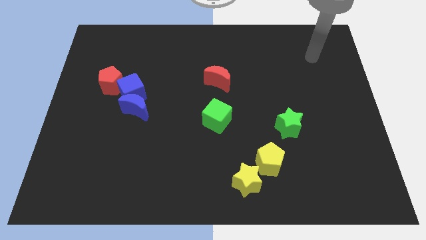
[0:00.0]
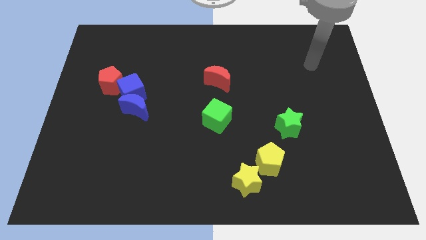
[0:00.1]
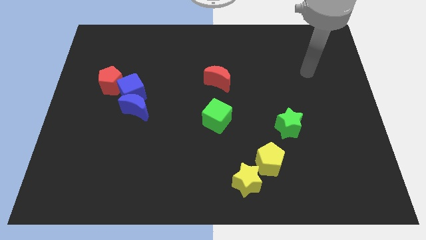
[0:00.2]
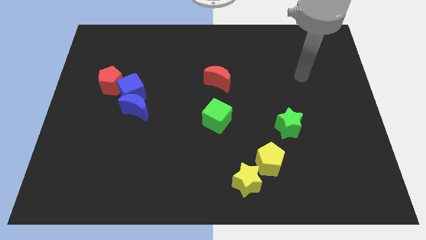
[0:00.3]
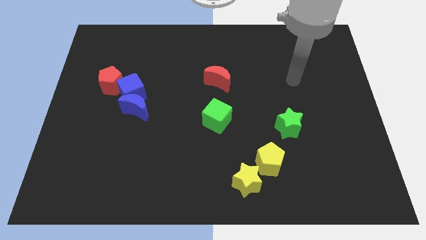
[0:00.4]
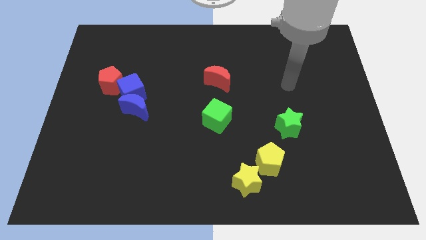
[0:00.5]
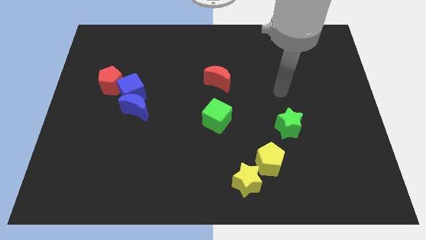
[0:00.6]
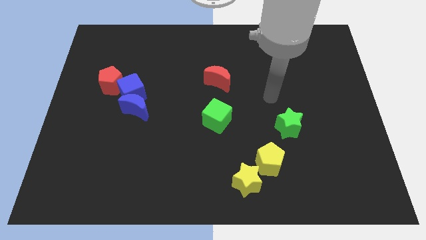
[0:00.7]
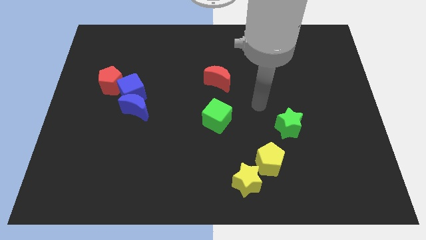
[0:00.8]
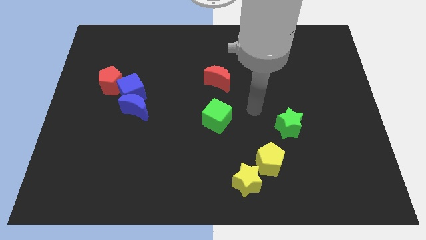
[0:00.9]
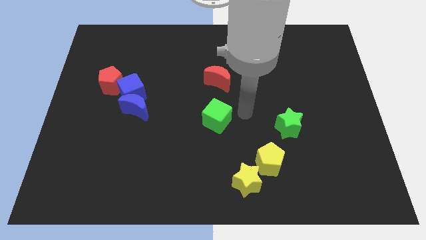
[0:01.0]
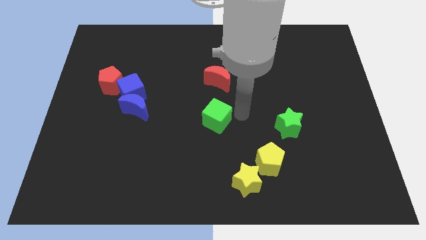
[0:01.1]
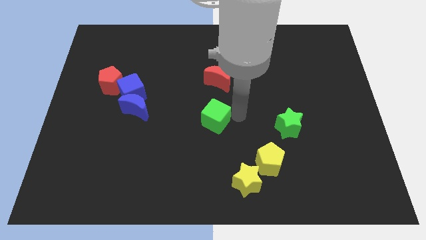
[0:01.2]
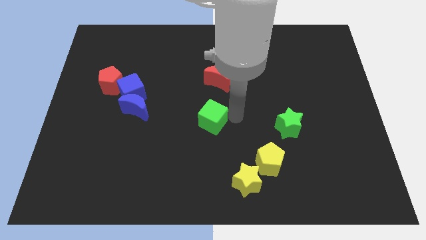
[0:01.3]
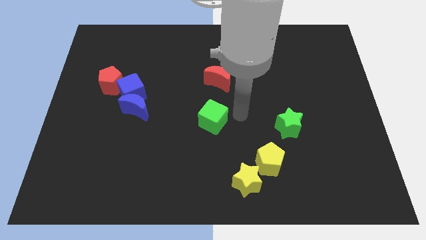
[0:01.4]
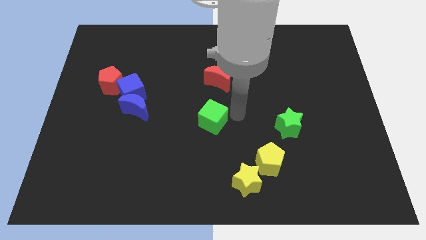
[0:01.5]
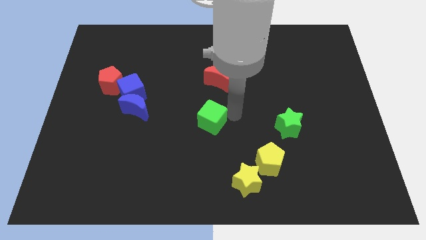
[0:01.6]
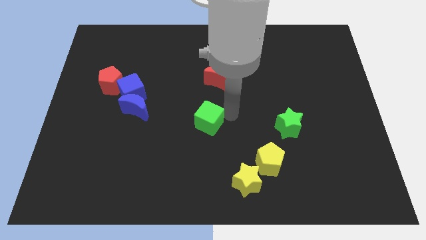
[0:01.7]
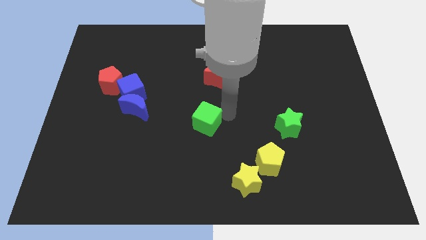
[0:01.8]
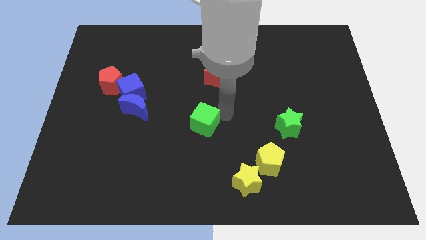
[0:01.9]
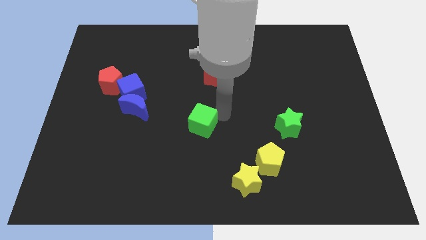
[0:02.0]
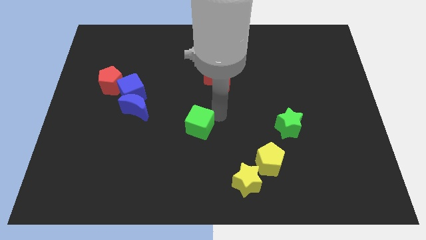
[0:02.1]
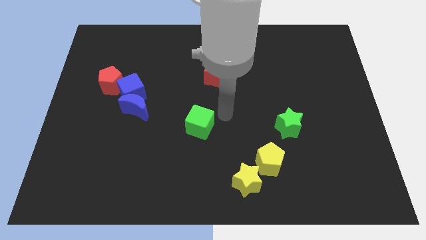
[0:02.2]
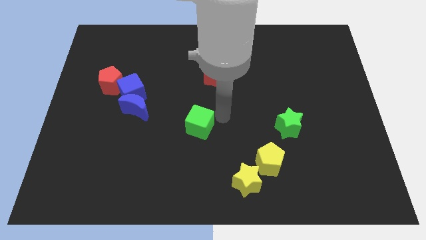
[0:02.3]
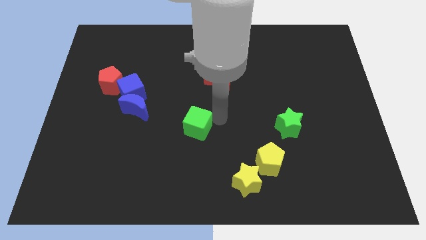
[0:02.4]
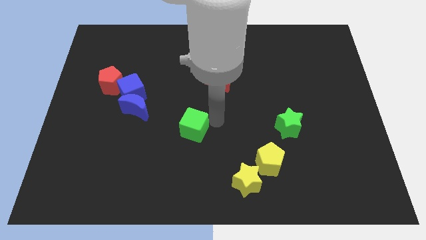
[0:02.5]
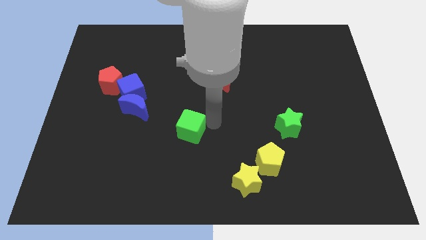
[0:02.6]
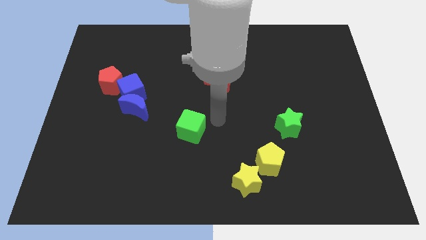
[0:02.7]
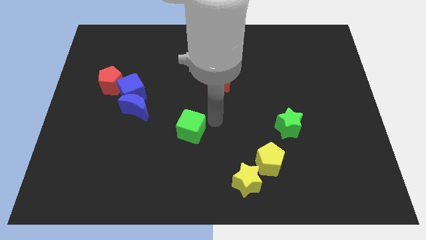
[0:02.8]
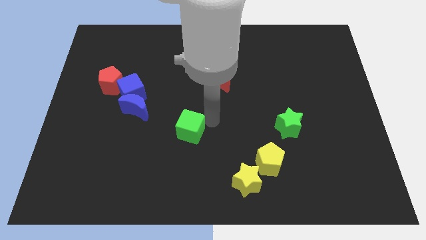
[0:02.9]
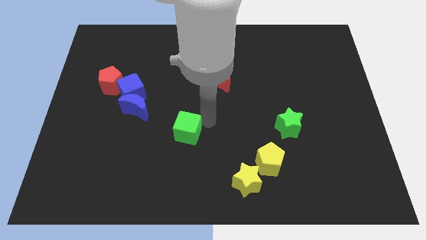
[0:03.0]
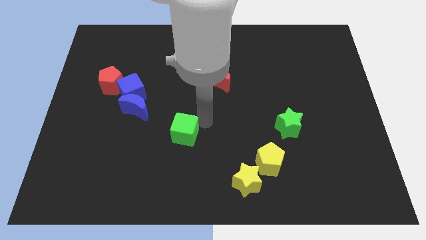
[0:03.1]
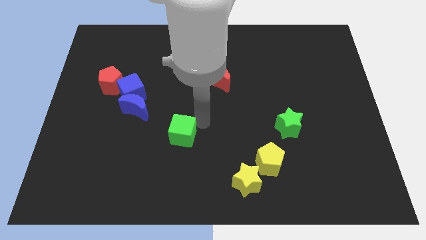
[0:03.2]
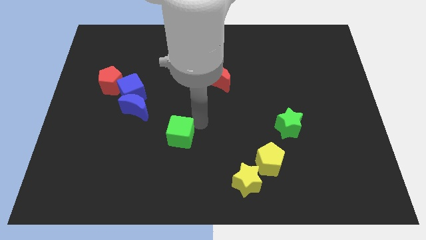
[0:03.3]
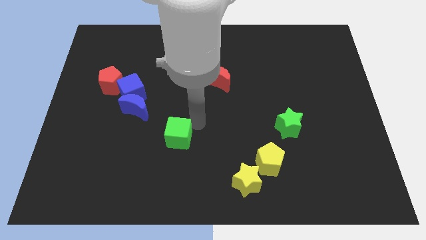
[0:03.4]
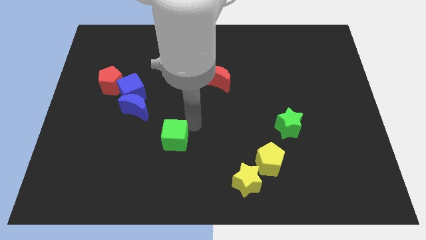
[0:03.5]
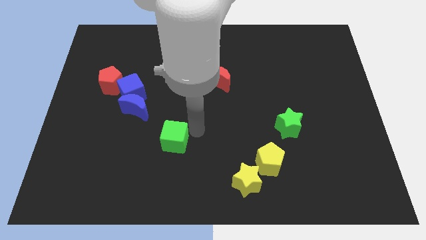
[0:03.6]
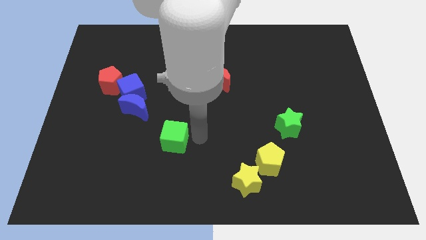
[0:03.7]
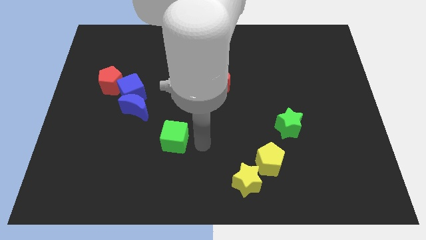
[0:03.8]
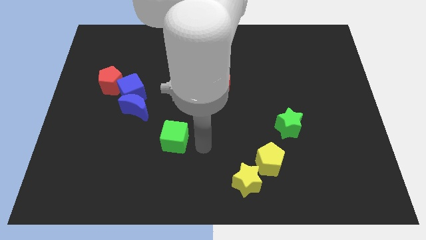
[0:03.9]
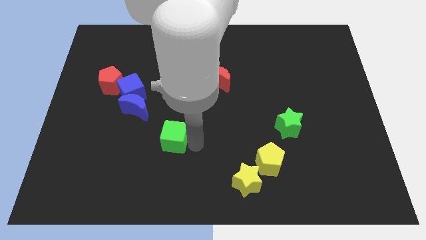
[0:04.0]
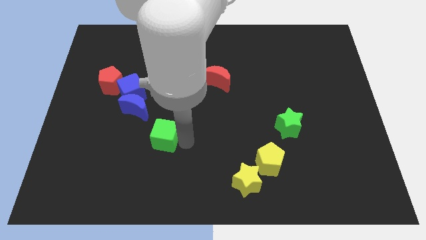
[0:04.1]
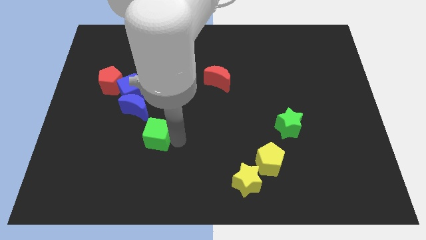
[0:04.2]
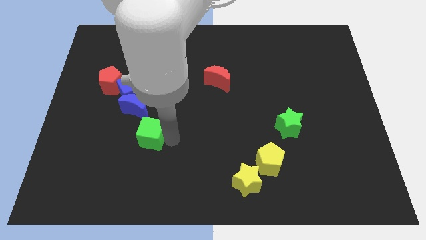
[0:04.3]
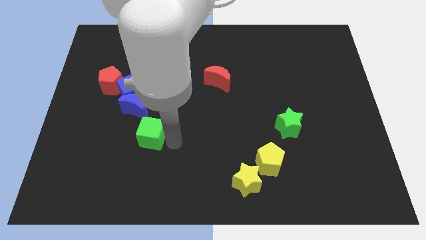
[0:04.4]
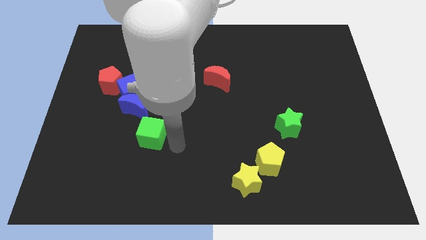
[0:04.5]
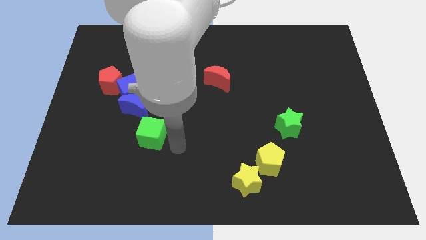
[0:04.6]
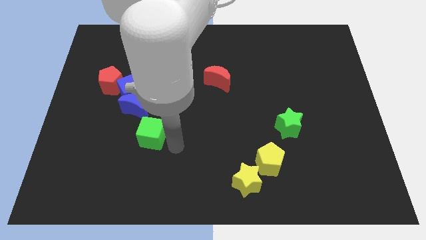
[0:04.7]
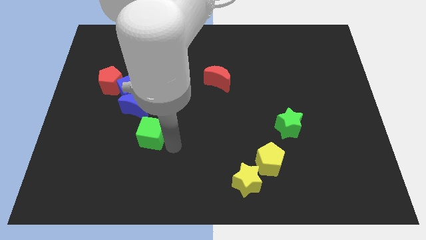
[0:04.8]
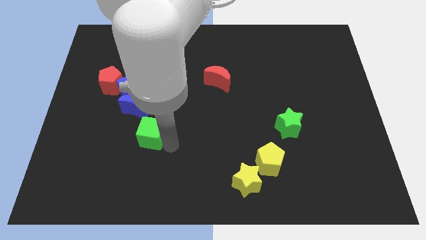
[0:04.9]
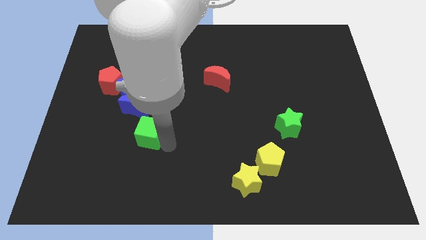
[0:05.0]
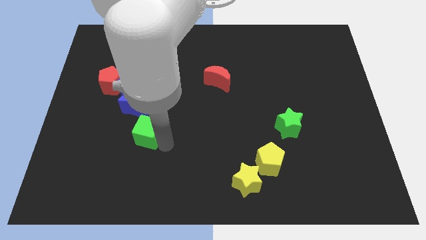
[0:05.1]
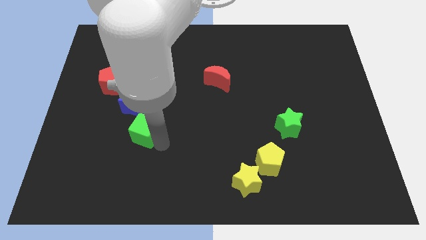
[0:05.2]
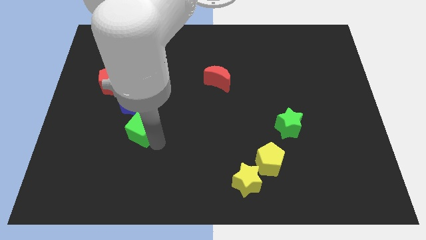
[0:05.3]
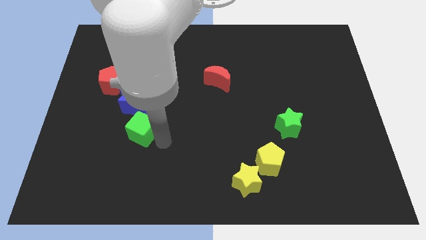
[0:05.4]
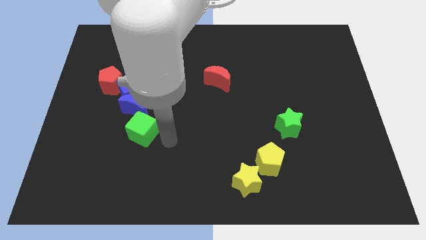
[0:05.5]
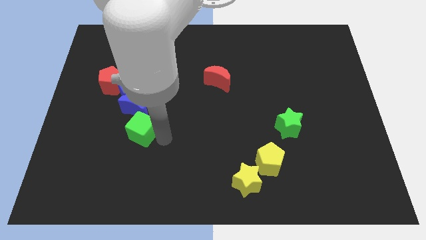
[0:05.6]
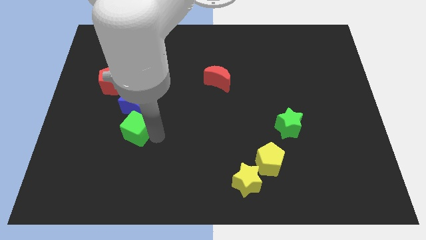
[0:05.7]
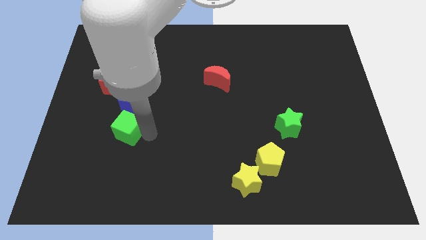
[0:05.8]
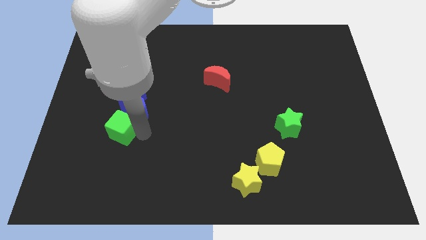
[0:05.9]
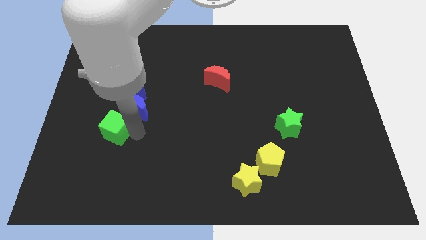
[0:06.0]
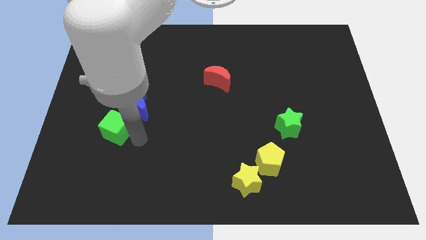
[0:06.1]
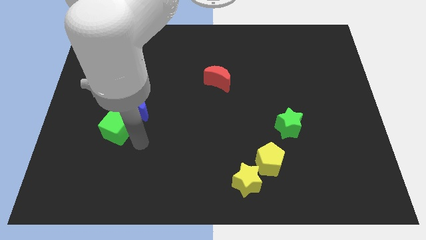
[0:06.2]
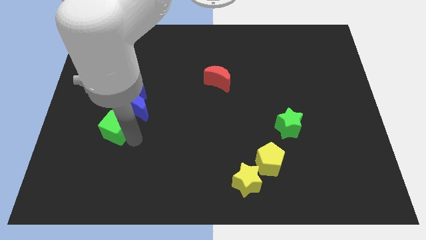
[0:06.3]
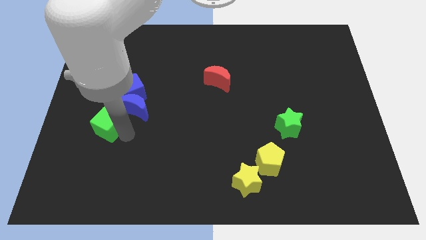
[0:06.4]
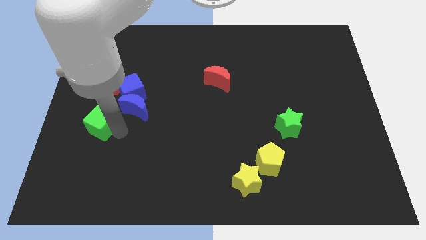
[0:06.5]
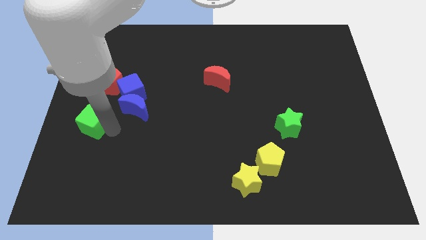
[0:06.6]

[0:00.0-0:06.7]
move the green cube to the left side

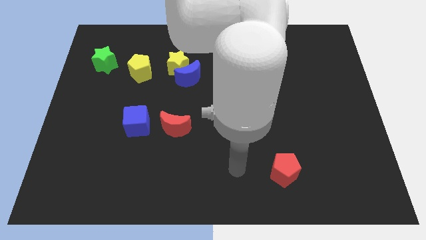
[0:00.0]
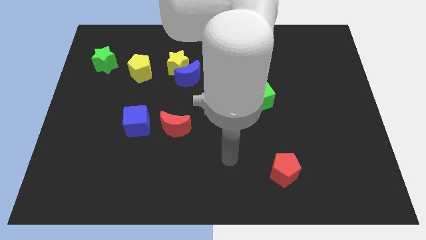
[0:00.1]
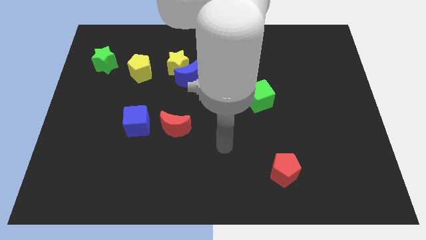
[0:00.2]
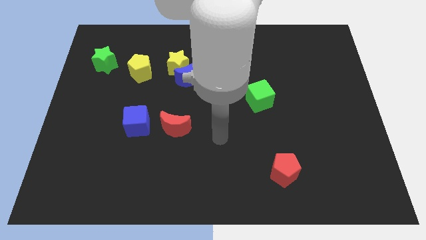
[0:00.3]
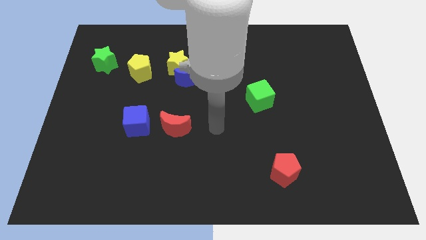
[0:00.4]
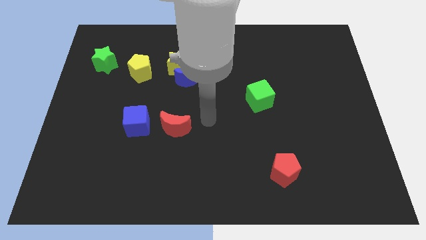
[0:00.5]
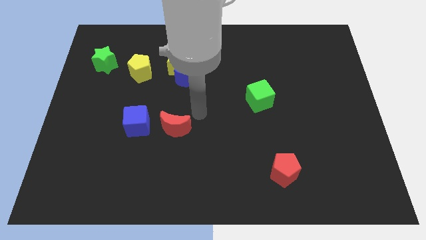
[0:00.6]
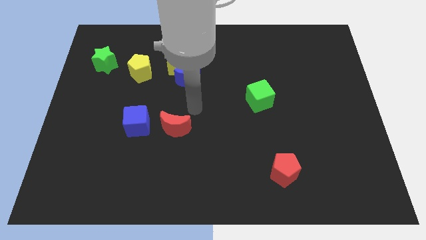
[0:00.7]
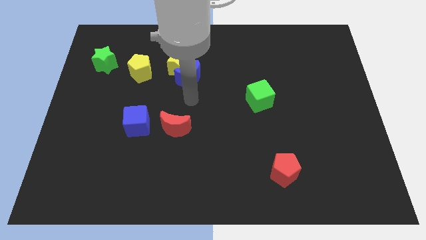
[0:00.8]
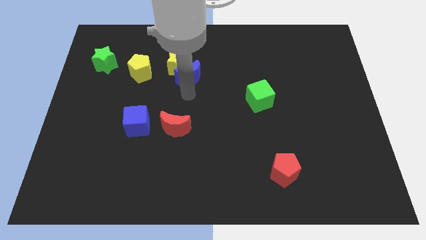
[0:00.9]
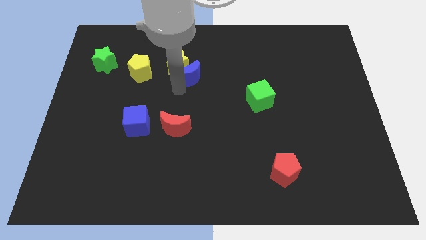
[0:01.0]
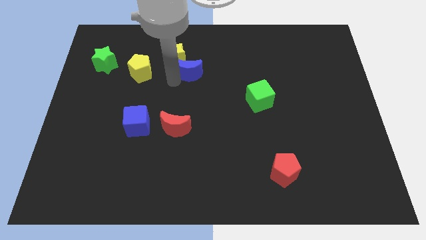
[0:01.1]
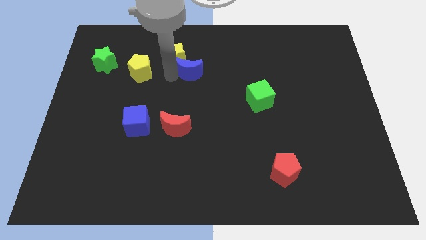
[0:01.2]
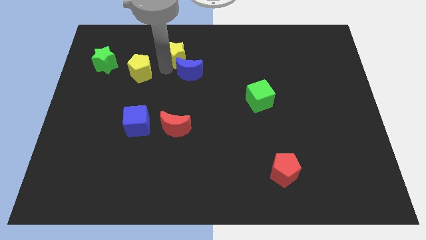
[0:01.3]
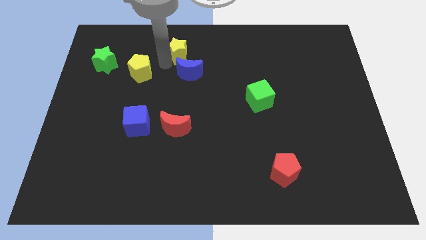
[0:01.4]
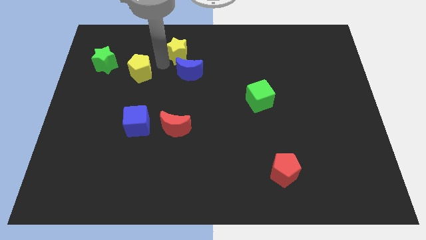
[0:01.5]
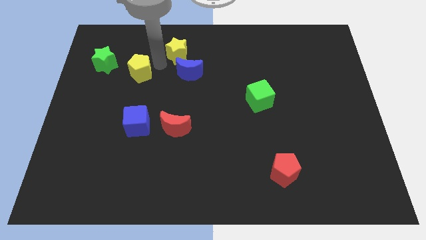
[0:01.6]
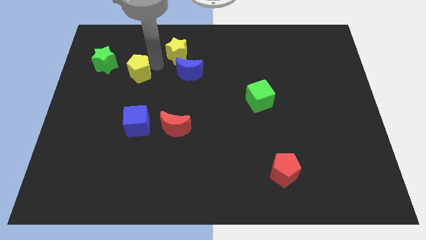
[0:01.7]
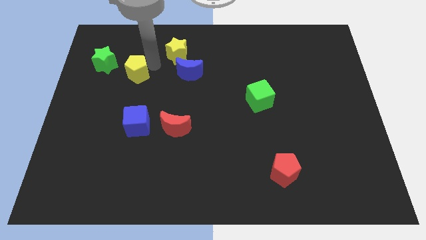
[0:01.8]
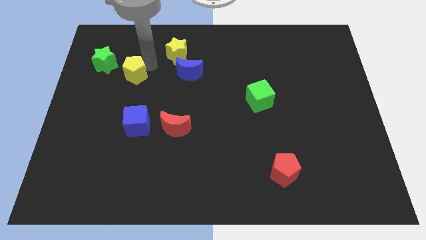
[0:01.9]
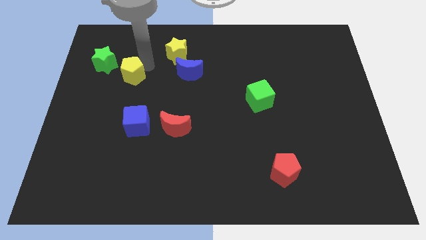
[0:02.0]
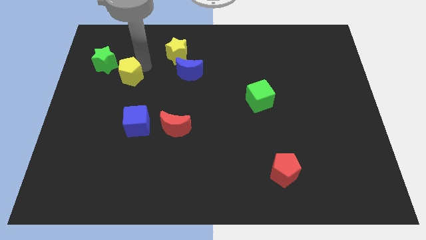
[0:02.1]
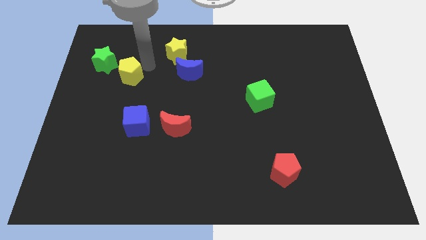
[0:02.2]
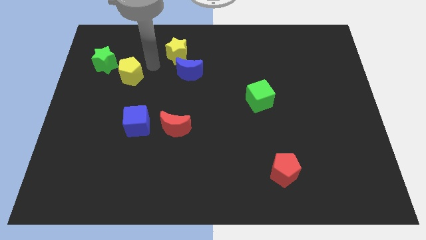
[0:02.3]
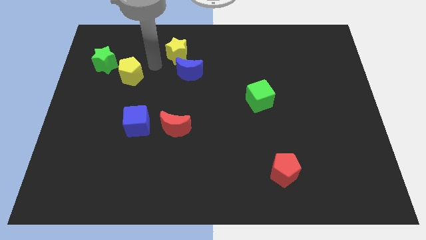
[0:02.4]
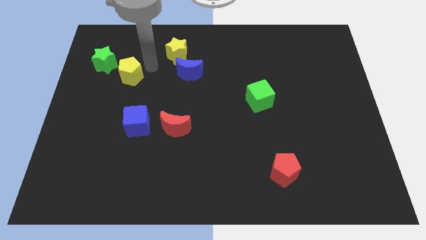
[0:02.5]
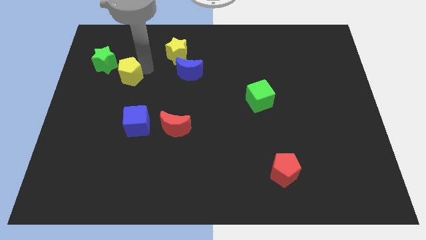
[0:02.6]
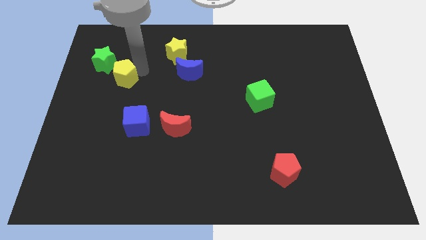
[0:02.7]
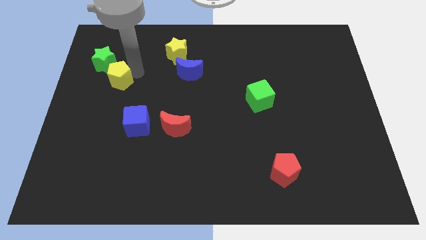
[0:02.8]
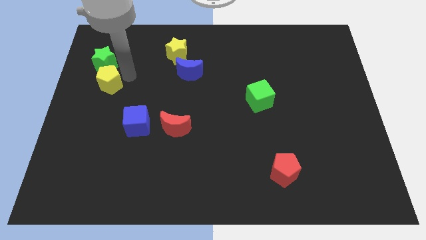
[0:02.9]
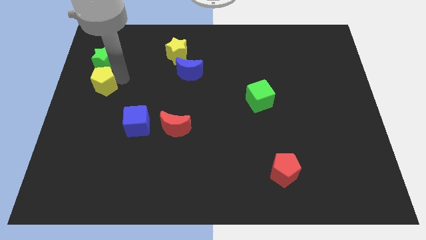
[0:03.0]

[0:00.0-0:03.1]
put the yellow pentagon to the left side of the board
